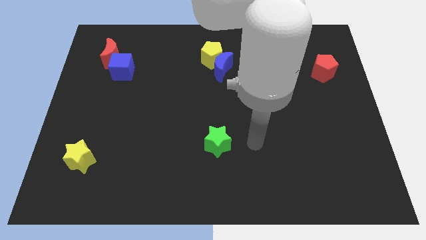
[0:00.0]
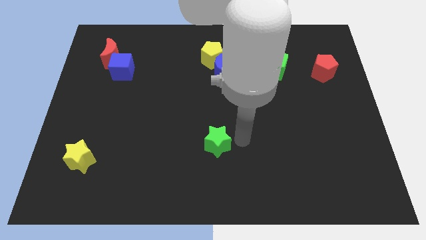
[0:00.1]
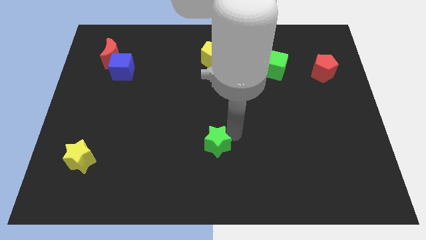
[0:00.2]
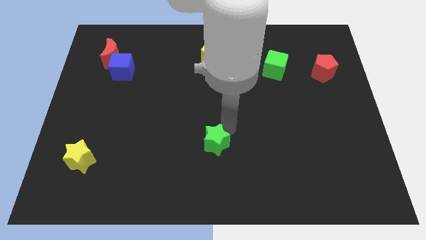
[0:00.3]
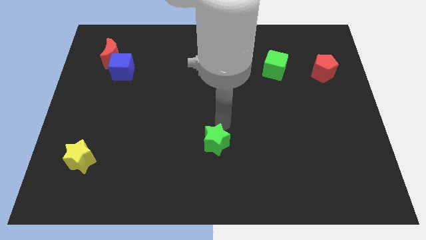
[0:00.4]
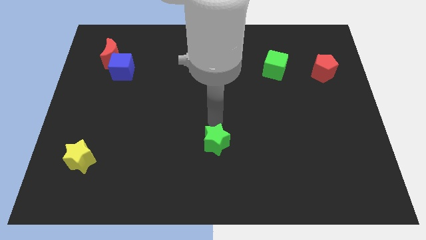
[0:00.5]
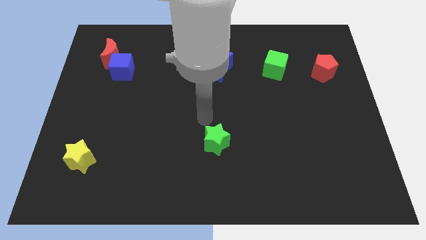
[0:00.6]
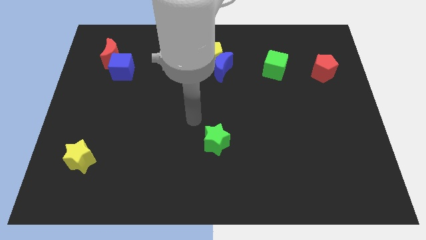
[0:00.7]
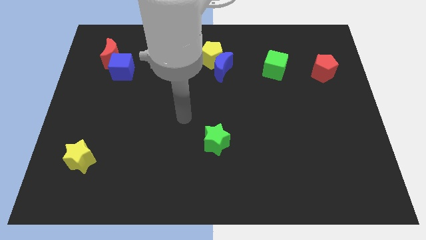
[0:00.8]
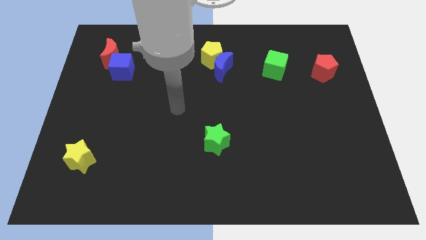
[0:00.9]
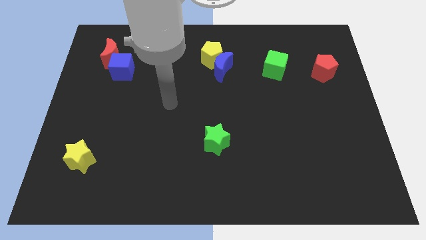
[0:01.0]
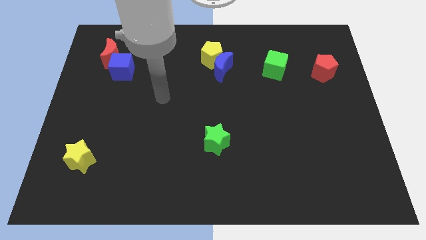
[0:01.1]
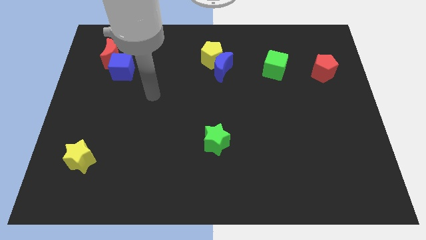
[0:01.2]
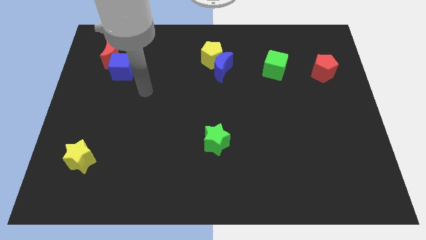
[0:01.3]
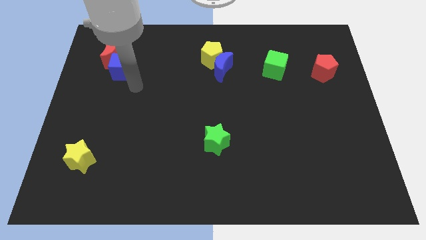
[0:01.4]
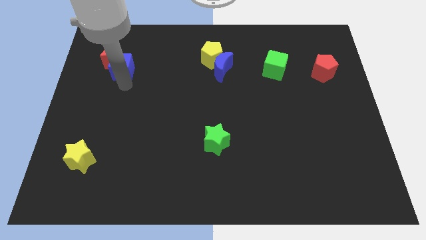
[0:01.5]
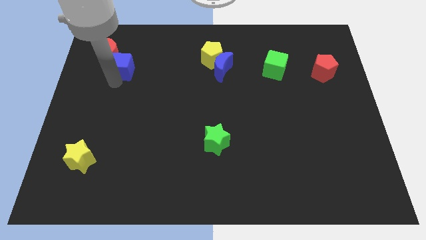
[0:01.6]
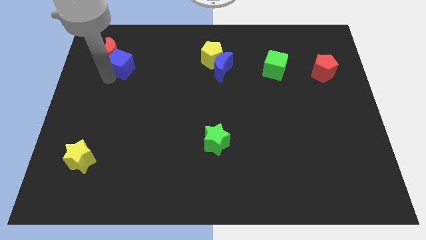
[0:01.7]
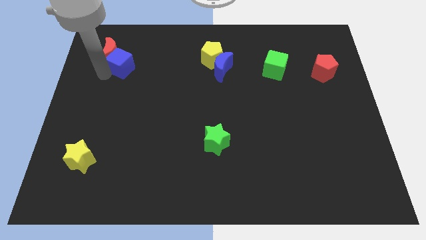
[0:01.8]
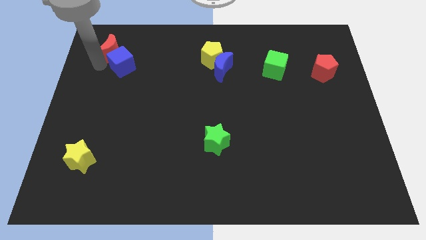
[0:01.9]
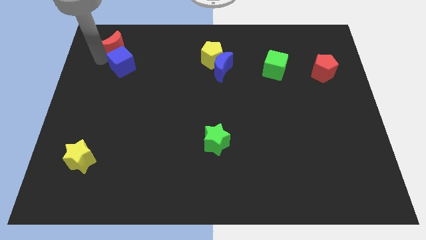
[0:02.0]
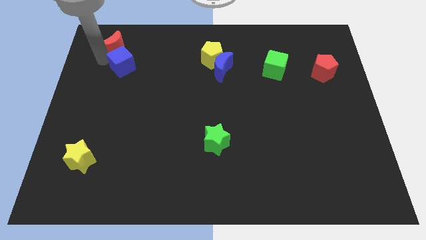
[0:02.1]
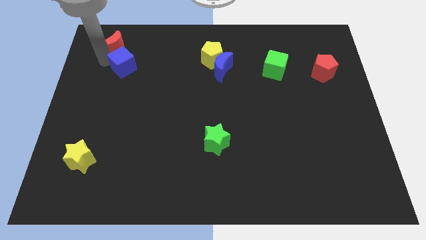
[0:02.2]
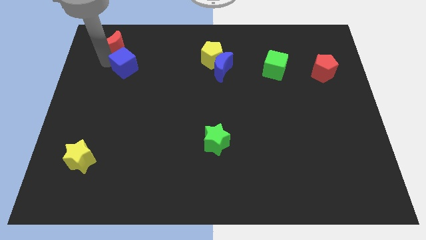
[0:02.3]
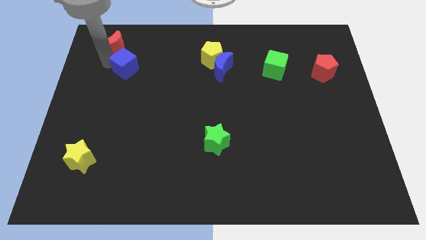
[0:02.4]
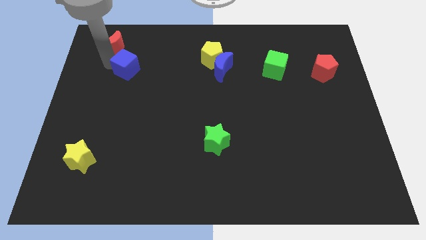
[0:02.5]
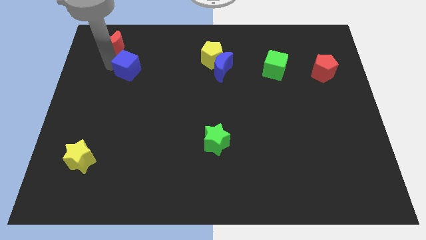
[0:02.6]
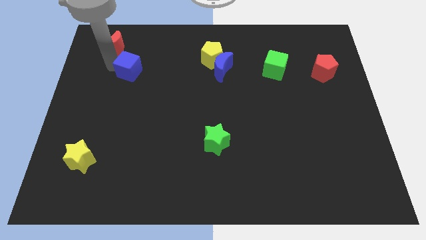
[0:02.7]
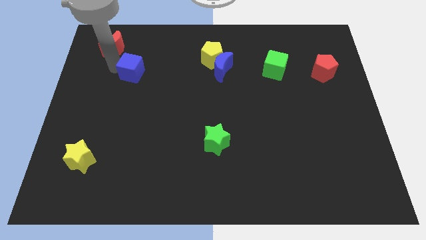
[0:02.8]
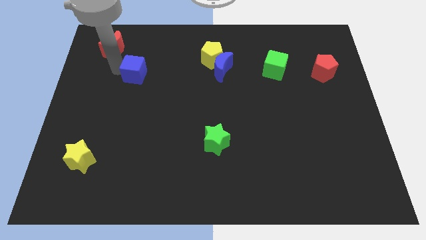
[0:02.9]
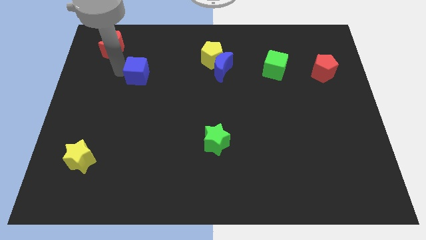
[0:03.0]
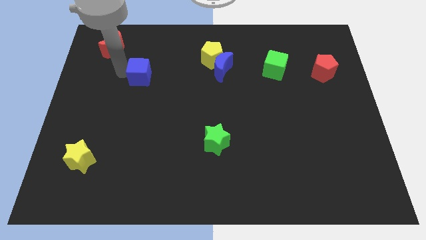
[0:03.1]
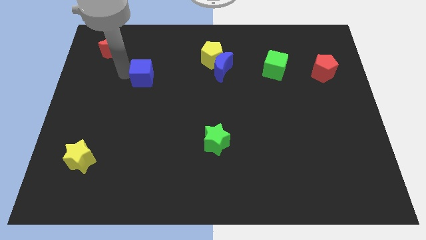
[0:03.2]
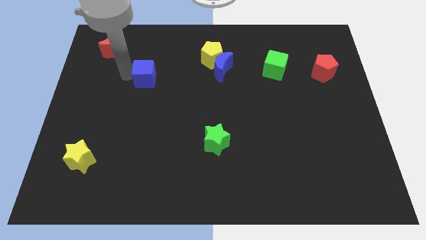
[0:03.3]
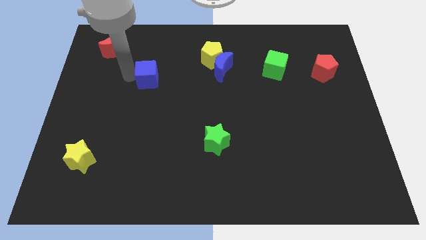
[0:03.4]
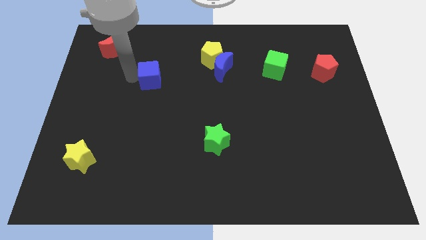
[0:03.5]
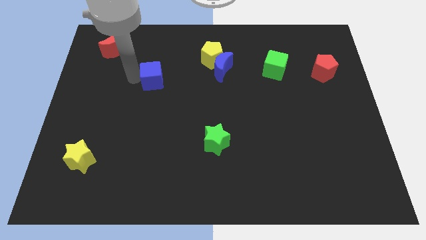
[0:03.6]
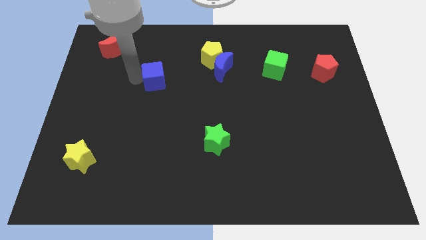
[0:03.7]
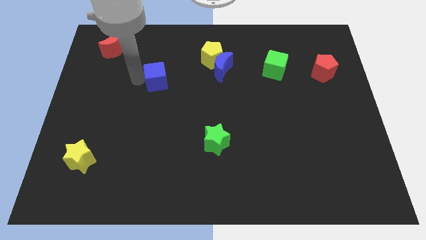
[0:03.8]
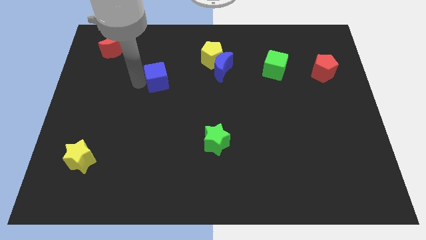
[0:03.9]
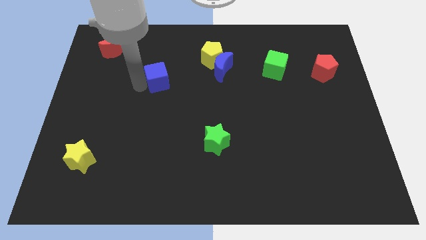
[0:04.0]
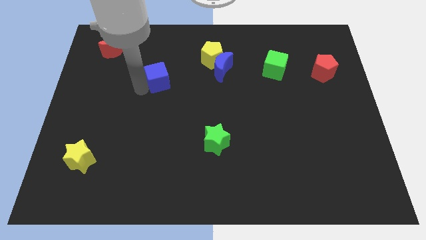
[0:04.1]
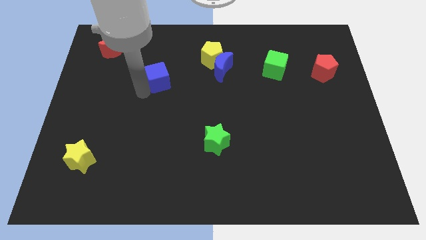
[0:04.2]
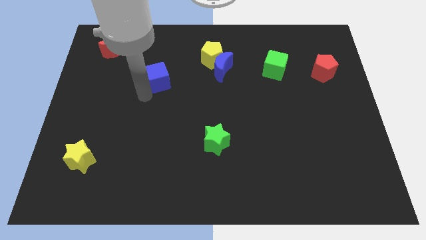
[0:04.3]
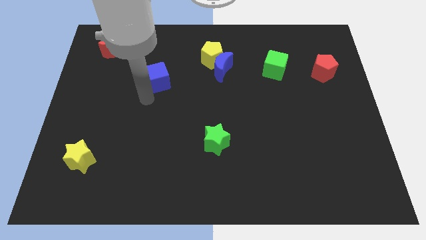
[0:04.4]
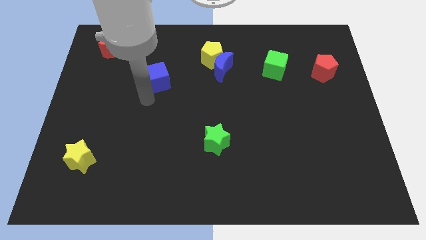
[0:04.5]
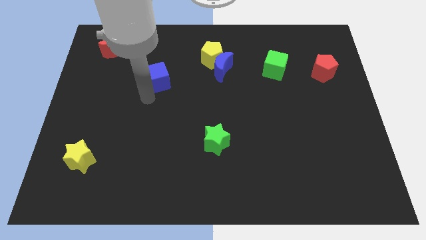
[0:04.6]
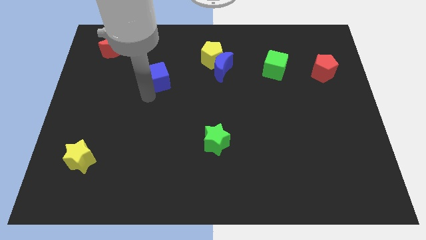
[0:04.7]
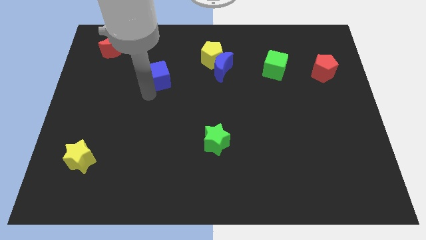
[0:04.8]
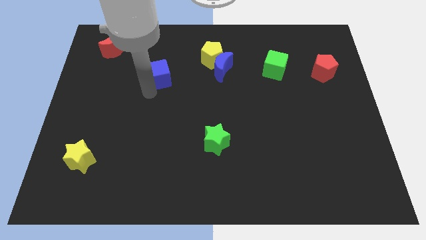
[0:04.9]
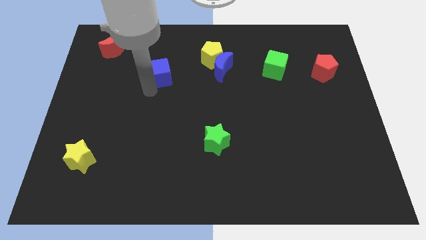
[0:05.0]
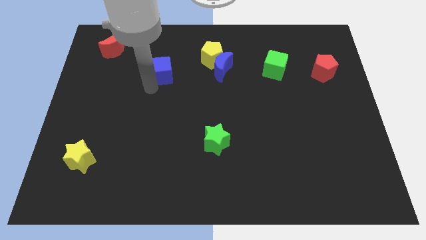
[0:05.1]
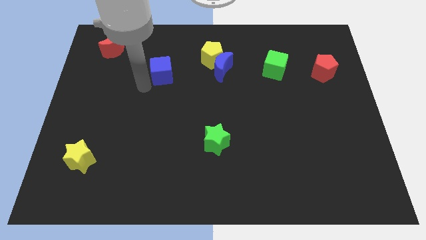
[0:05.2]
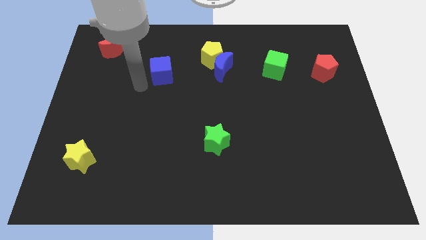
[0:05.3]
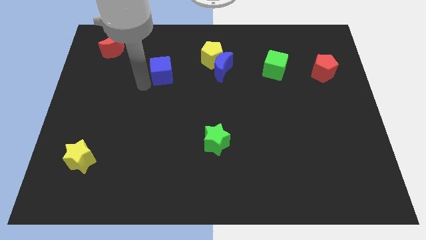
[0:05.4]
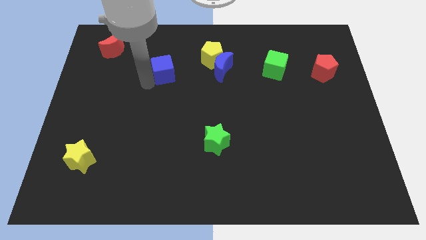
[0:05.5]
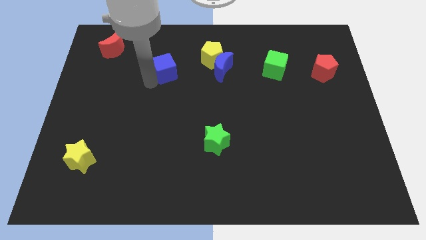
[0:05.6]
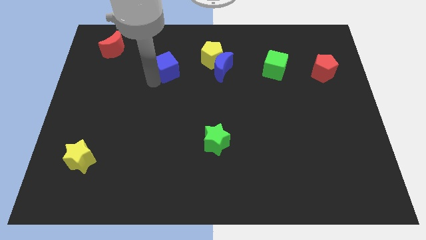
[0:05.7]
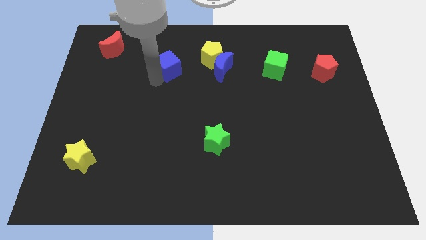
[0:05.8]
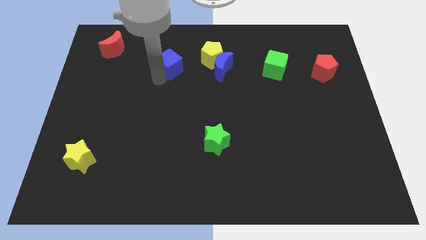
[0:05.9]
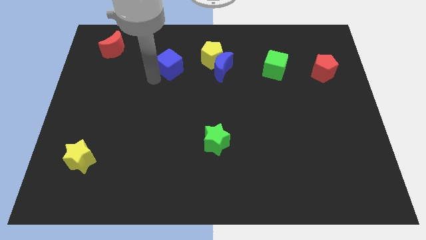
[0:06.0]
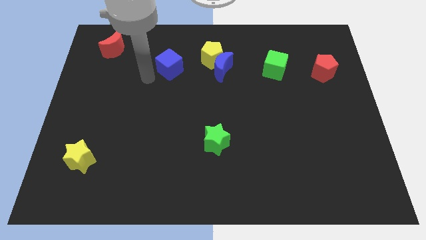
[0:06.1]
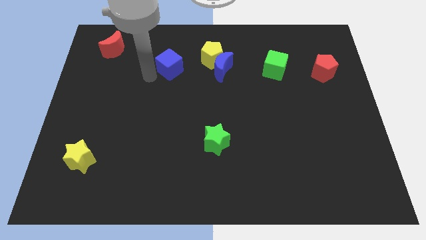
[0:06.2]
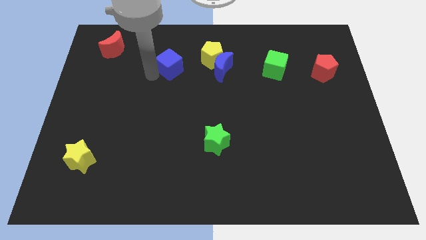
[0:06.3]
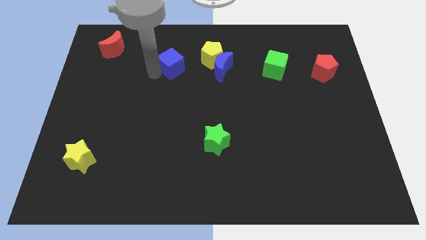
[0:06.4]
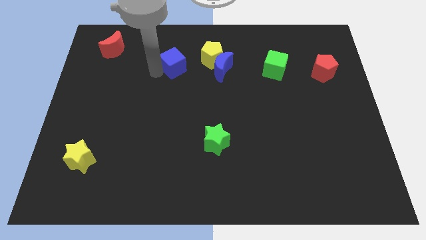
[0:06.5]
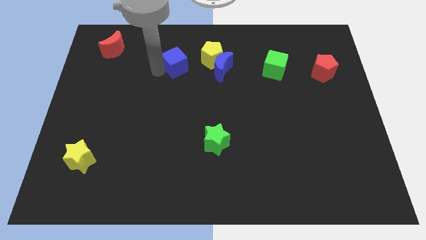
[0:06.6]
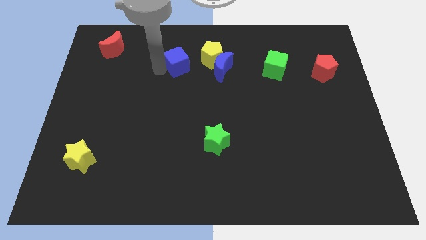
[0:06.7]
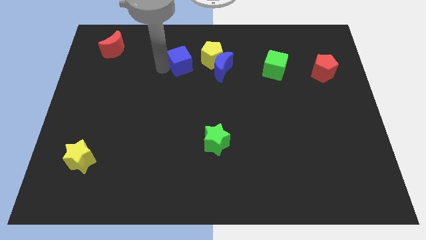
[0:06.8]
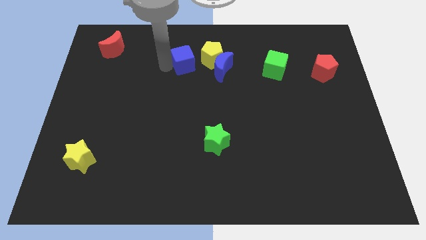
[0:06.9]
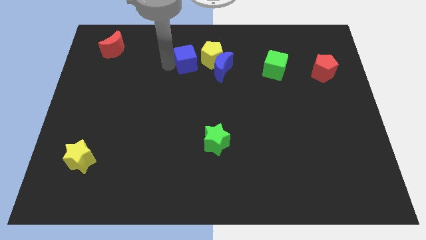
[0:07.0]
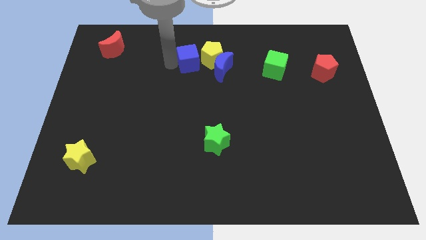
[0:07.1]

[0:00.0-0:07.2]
push the blue cube close to the yellow pentagon

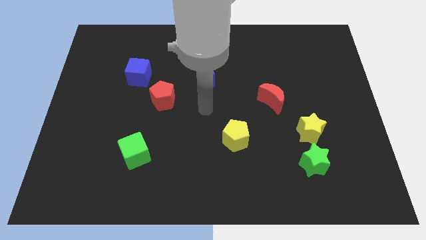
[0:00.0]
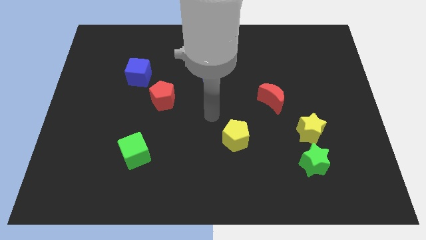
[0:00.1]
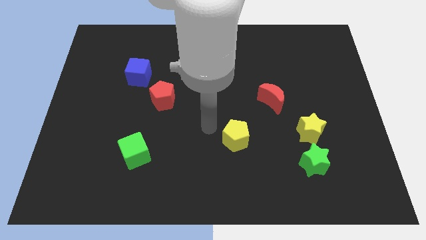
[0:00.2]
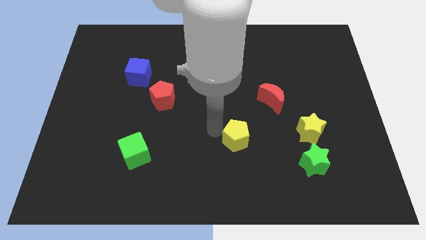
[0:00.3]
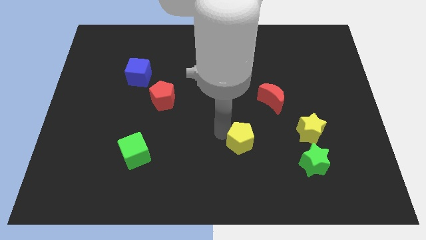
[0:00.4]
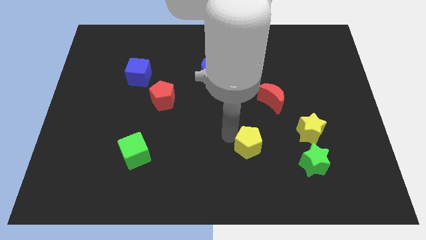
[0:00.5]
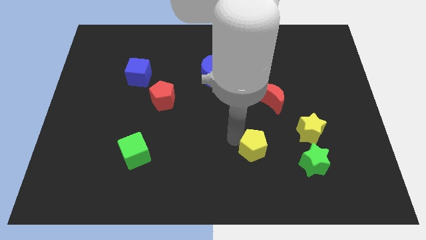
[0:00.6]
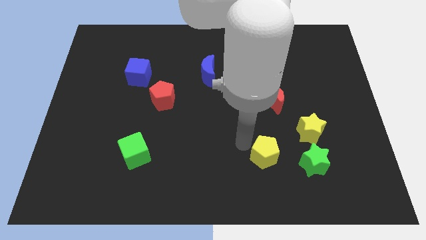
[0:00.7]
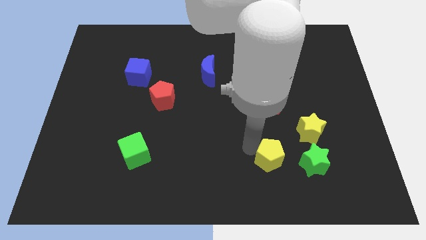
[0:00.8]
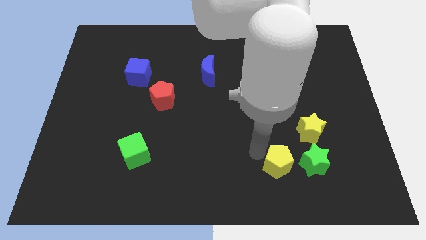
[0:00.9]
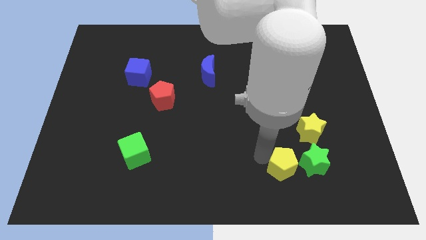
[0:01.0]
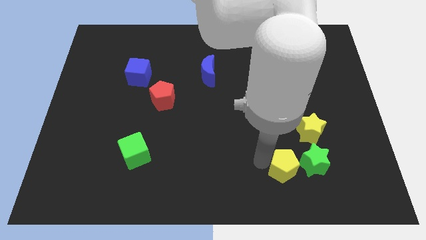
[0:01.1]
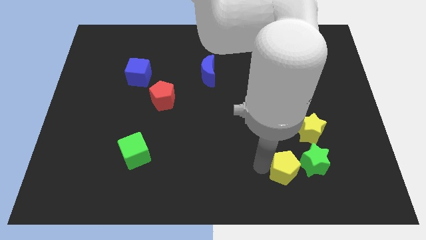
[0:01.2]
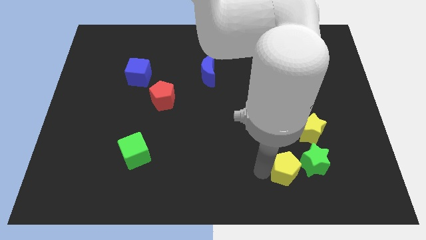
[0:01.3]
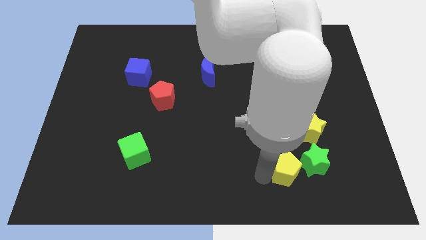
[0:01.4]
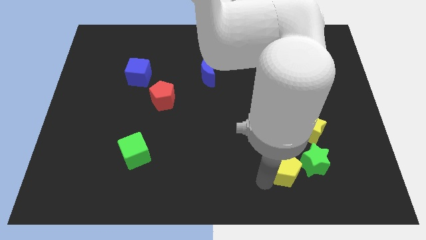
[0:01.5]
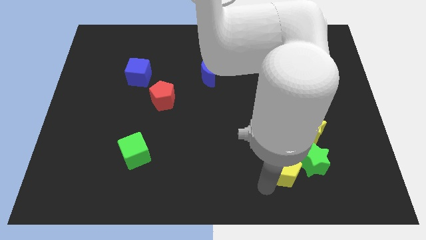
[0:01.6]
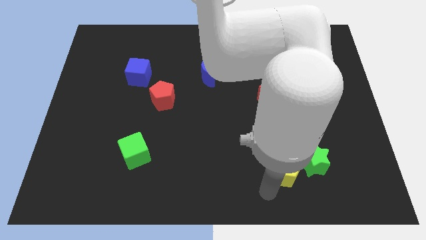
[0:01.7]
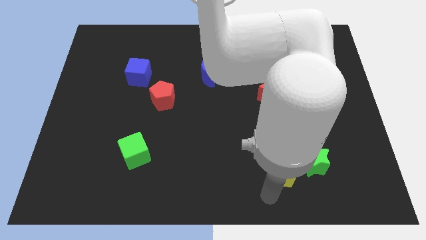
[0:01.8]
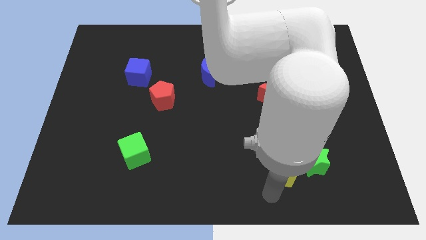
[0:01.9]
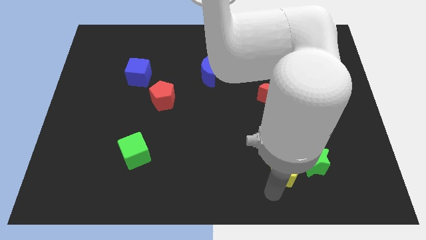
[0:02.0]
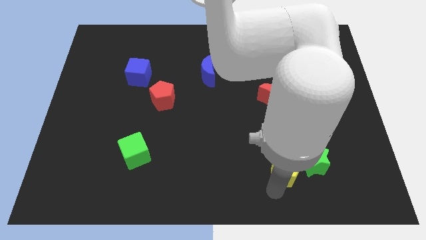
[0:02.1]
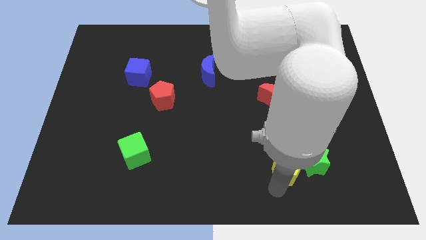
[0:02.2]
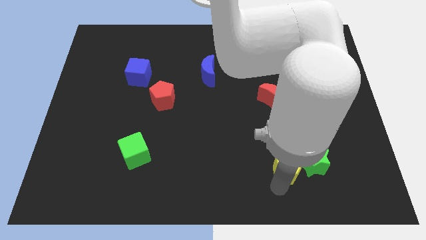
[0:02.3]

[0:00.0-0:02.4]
move the yellow pentagon next to the green star
